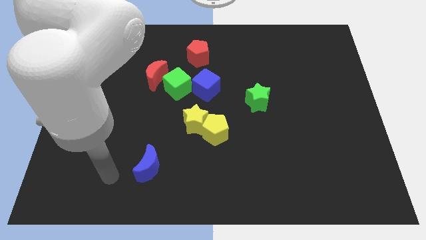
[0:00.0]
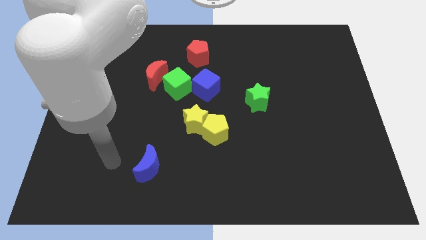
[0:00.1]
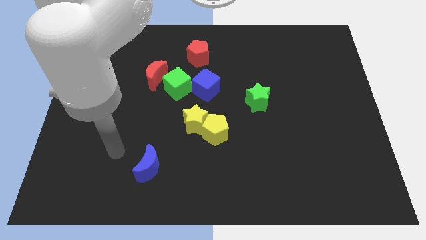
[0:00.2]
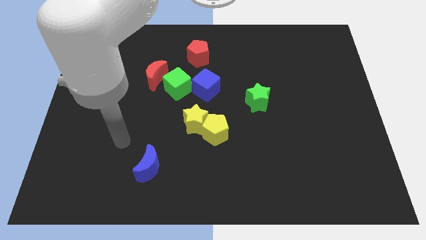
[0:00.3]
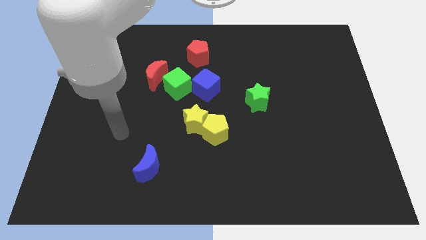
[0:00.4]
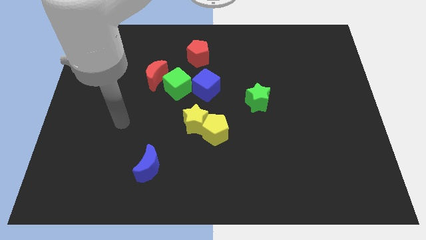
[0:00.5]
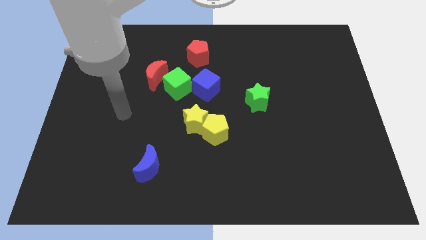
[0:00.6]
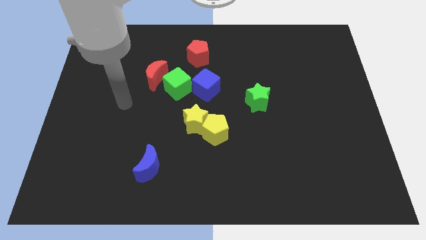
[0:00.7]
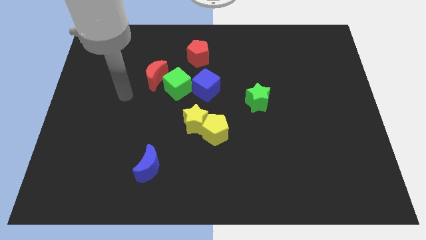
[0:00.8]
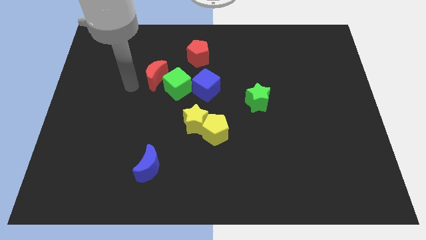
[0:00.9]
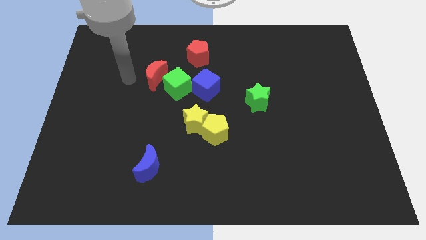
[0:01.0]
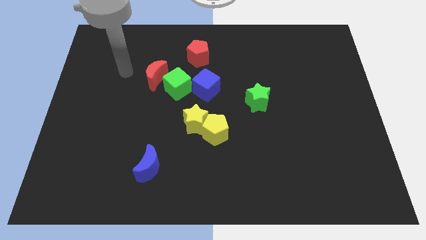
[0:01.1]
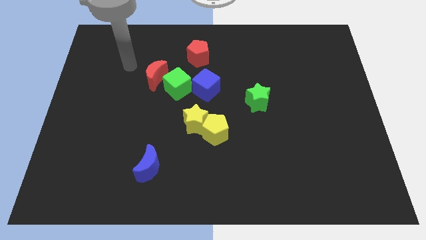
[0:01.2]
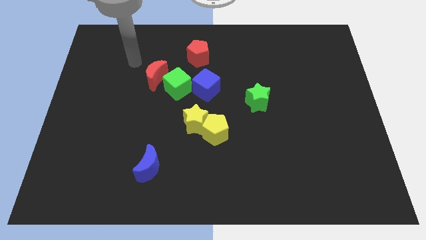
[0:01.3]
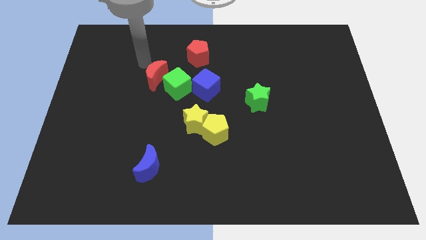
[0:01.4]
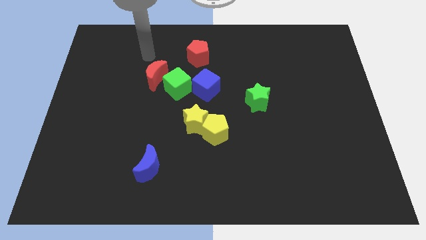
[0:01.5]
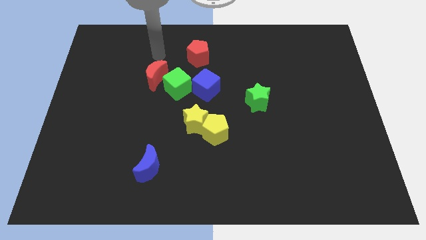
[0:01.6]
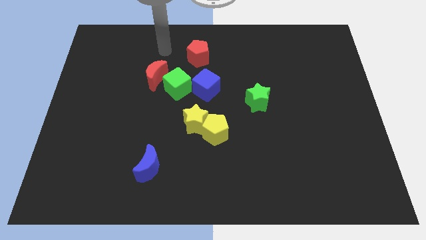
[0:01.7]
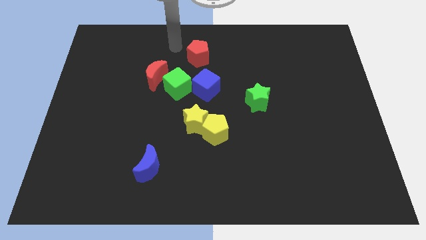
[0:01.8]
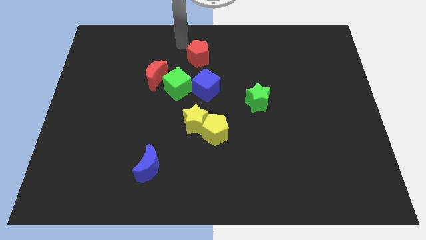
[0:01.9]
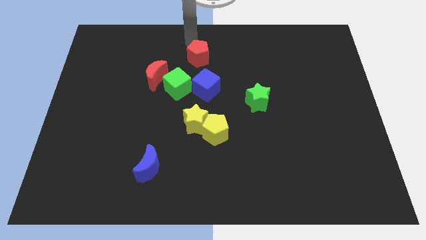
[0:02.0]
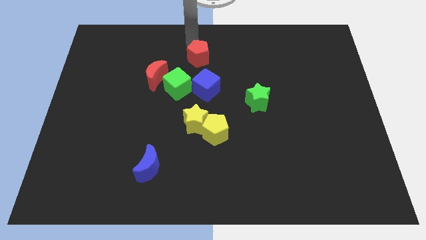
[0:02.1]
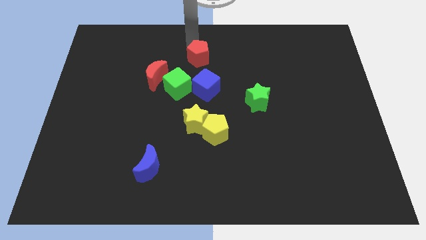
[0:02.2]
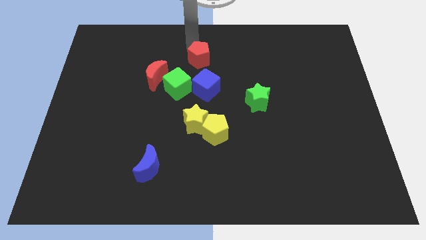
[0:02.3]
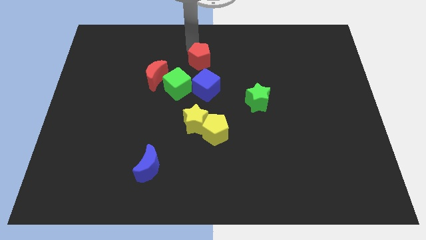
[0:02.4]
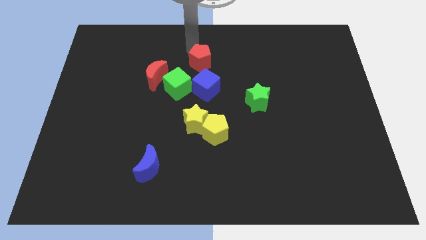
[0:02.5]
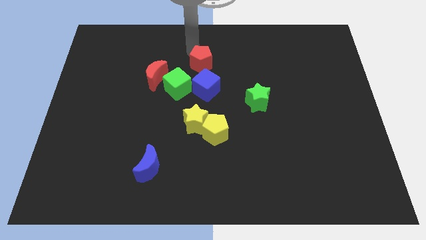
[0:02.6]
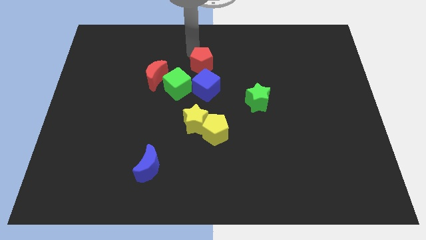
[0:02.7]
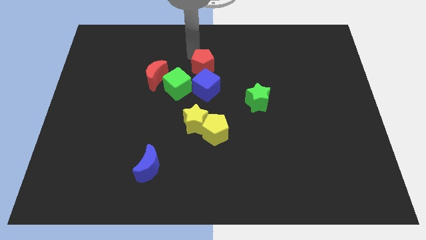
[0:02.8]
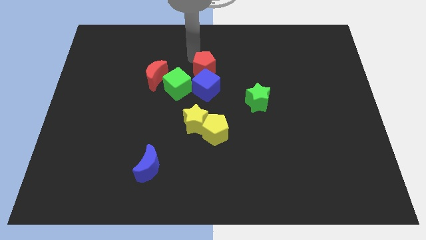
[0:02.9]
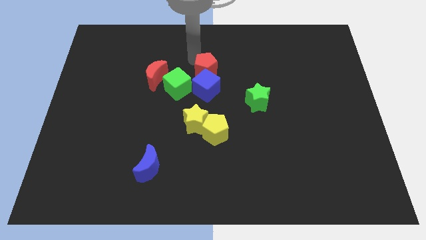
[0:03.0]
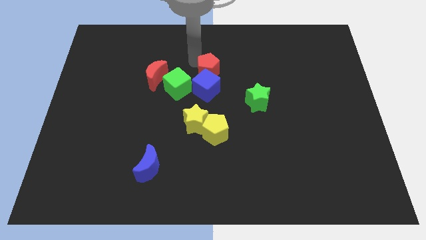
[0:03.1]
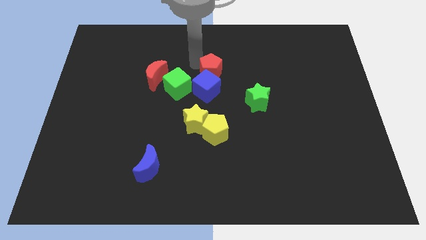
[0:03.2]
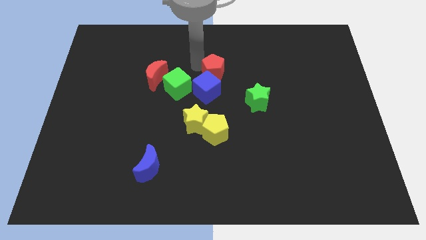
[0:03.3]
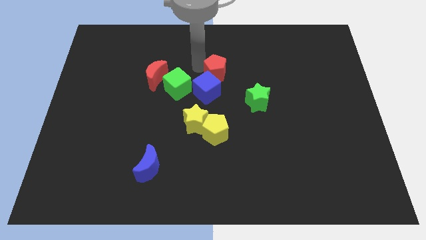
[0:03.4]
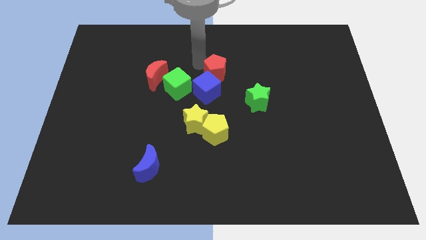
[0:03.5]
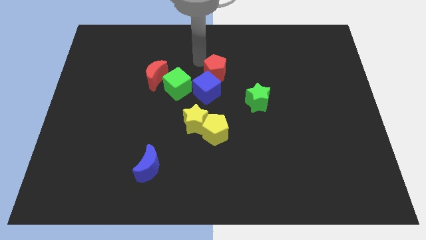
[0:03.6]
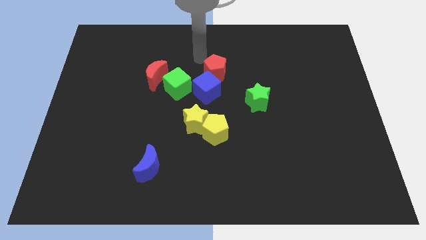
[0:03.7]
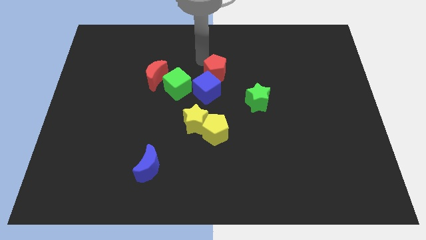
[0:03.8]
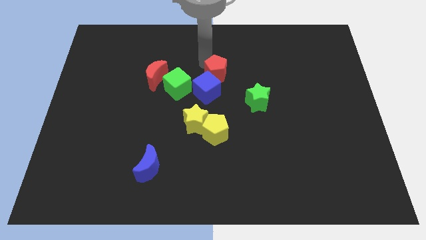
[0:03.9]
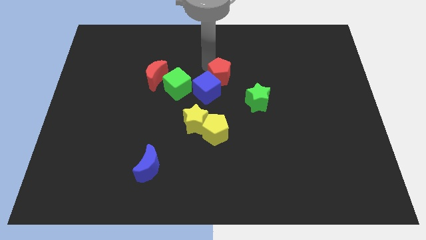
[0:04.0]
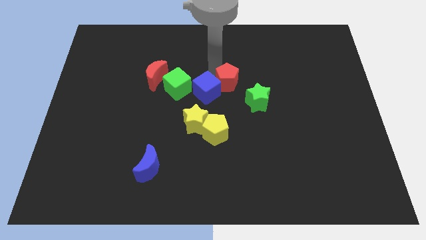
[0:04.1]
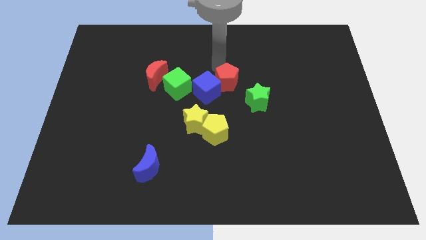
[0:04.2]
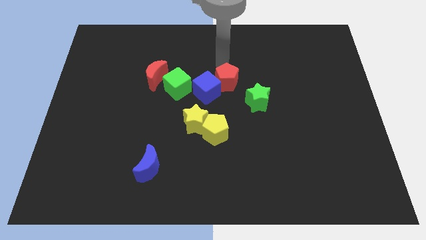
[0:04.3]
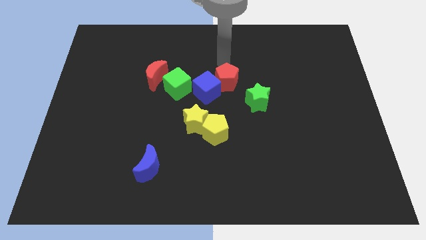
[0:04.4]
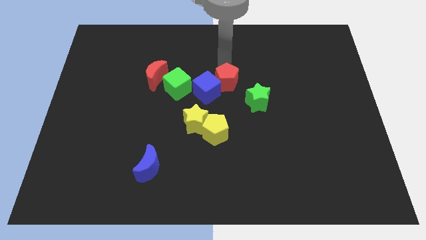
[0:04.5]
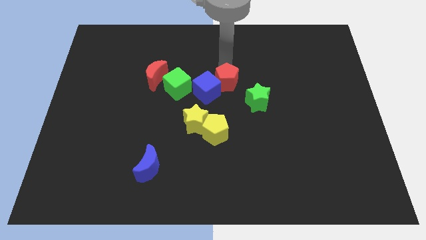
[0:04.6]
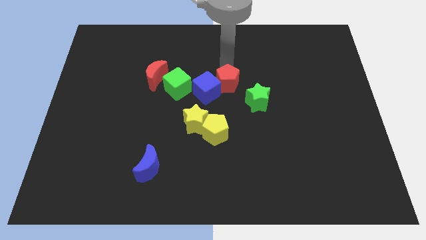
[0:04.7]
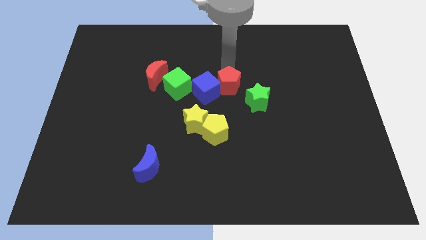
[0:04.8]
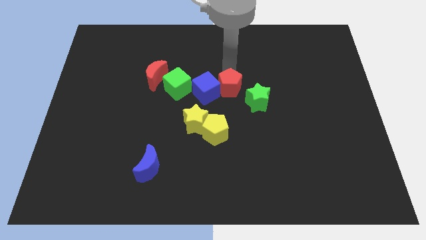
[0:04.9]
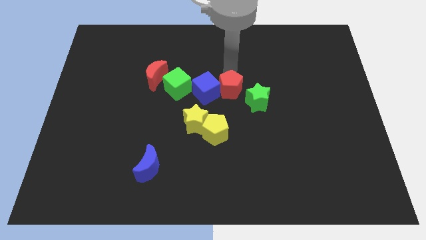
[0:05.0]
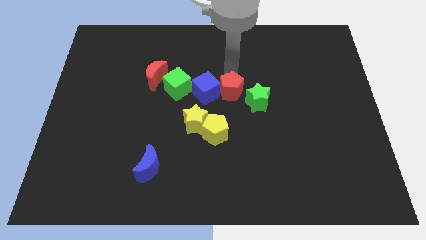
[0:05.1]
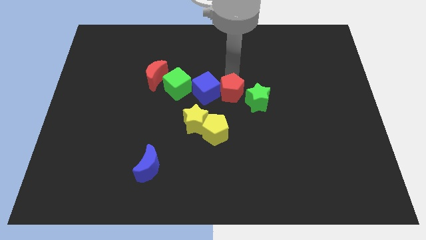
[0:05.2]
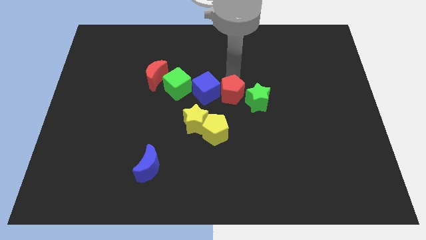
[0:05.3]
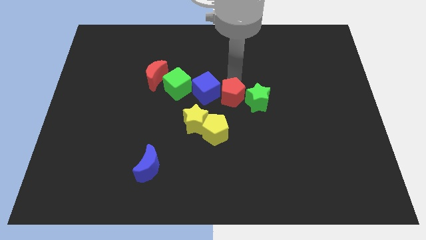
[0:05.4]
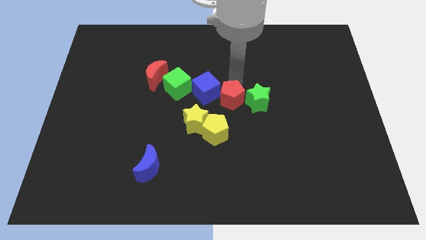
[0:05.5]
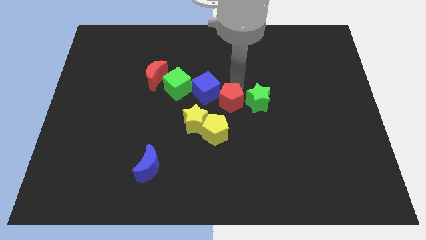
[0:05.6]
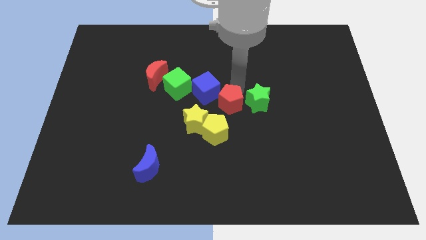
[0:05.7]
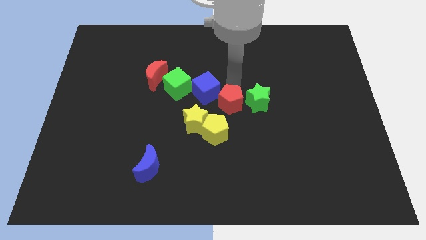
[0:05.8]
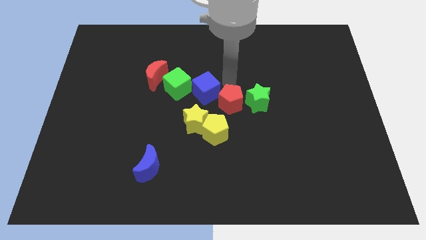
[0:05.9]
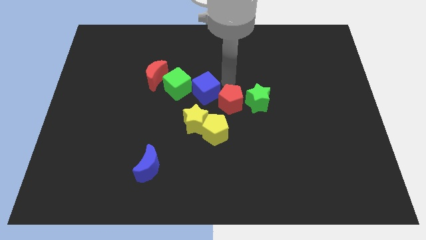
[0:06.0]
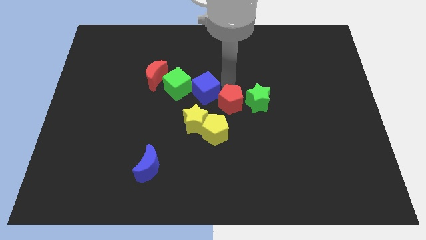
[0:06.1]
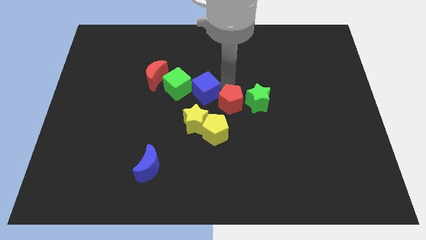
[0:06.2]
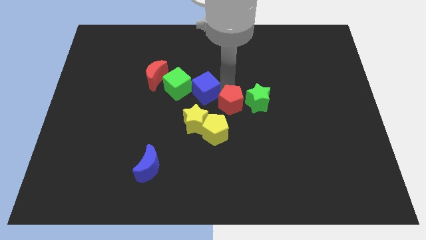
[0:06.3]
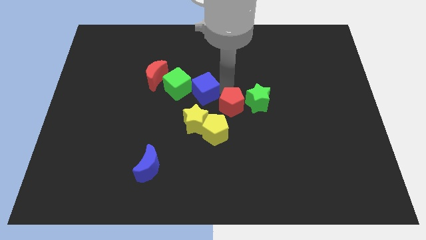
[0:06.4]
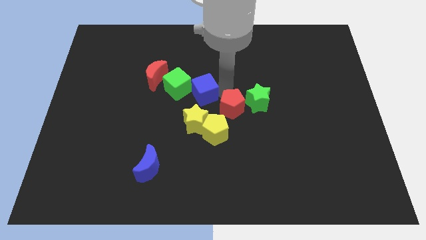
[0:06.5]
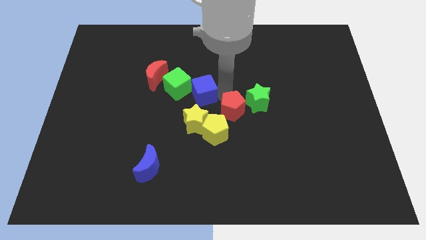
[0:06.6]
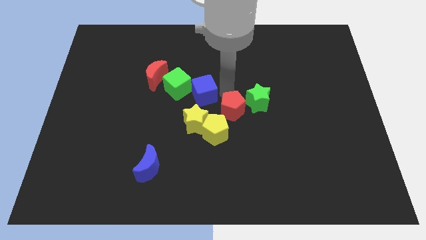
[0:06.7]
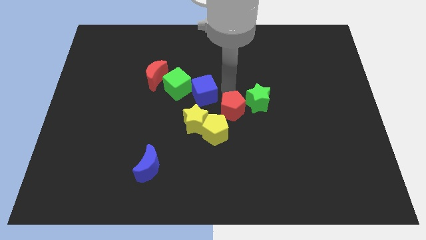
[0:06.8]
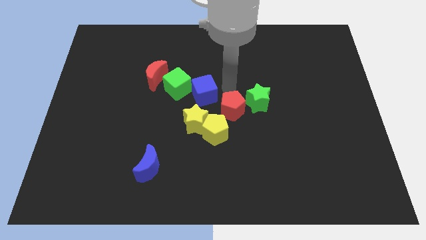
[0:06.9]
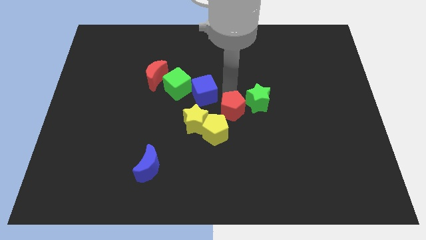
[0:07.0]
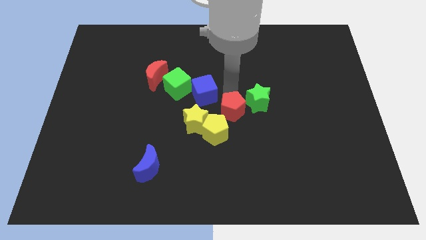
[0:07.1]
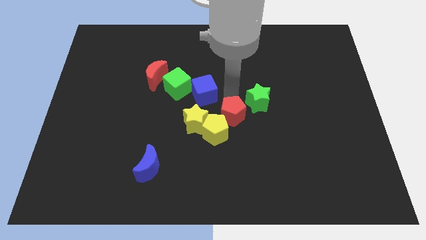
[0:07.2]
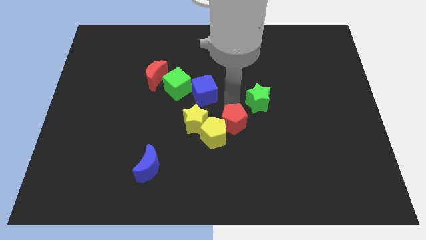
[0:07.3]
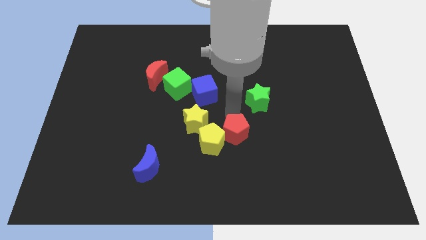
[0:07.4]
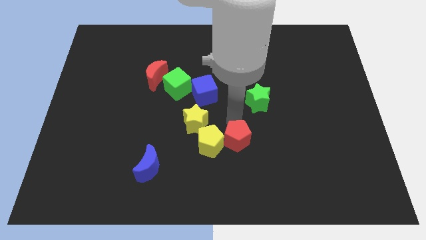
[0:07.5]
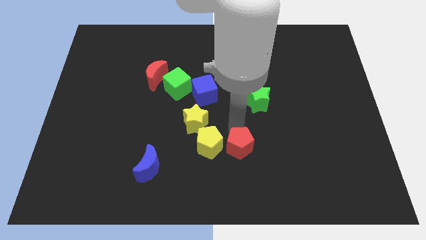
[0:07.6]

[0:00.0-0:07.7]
move the red pentagon to the bottom right side of the yellow pentagon
